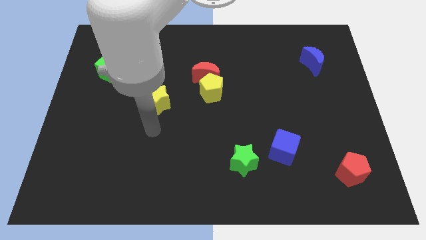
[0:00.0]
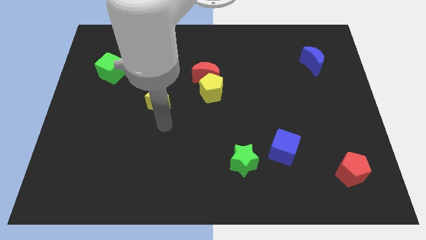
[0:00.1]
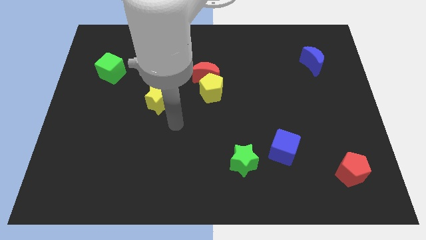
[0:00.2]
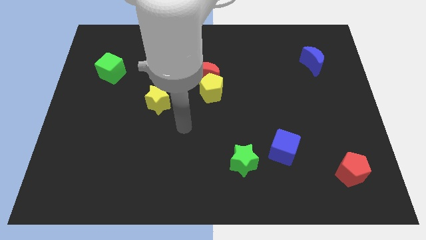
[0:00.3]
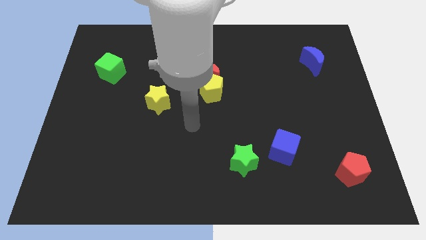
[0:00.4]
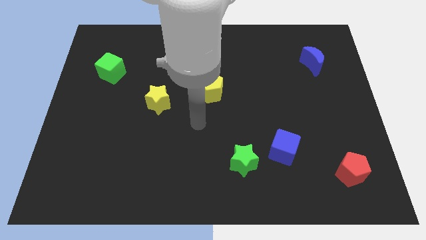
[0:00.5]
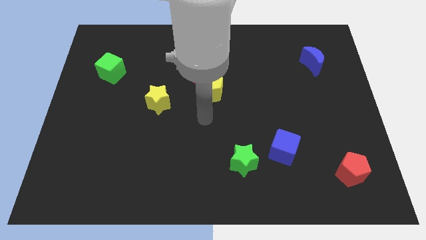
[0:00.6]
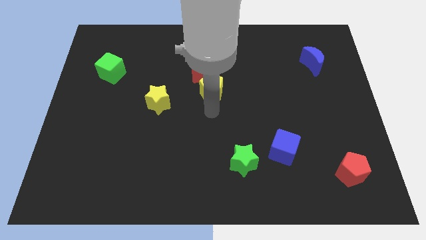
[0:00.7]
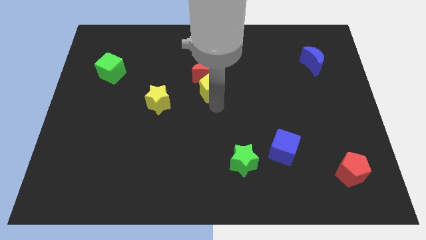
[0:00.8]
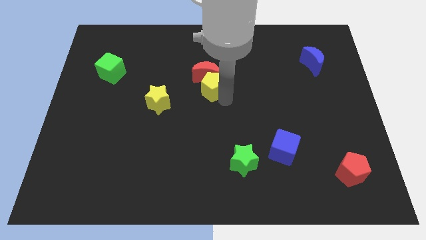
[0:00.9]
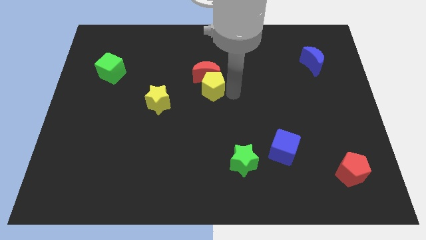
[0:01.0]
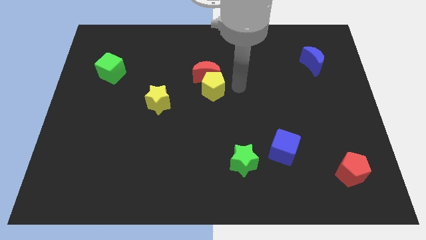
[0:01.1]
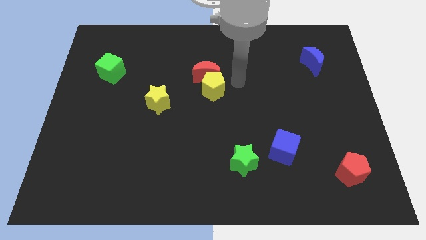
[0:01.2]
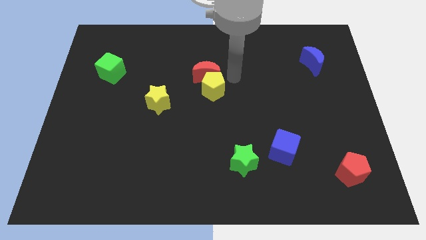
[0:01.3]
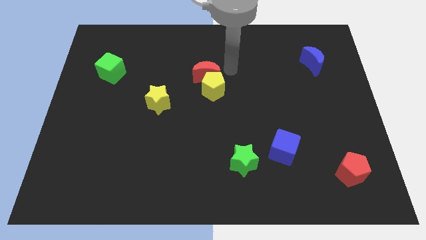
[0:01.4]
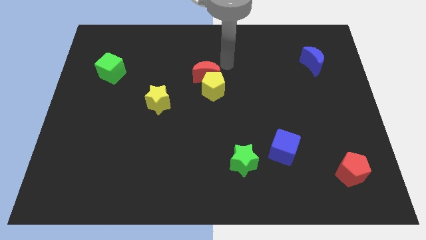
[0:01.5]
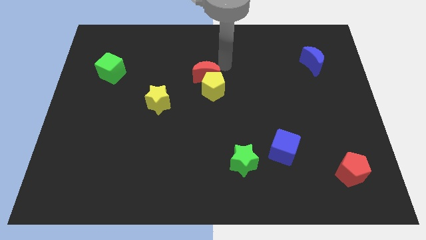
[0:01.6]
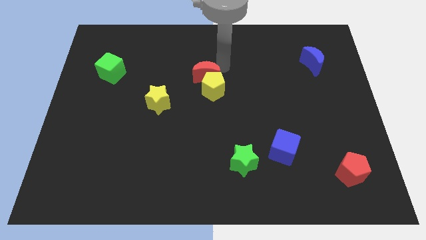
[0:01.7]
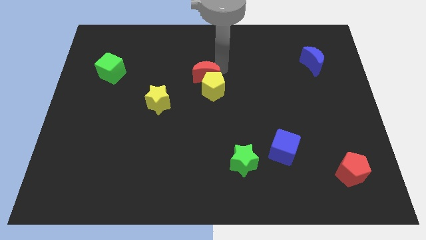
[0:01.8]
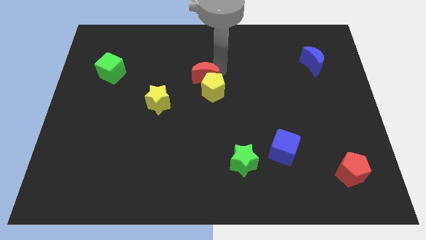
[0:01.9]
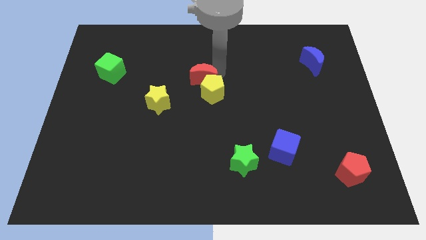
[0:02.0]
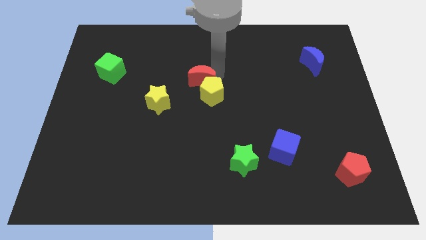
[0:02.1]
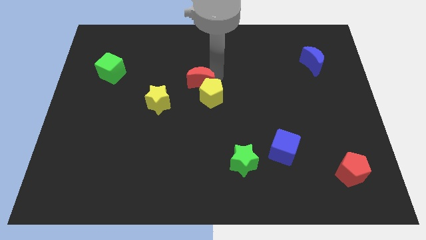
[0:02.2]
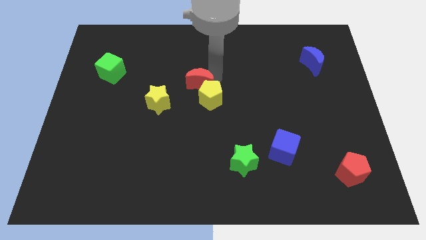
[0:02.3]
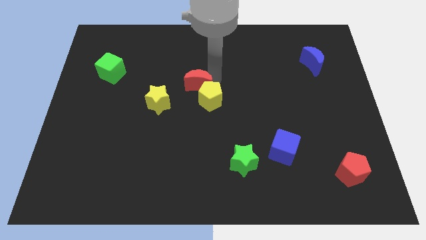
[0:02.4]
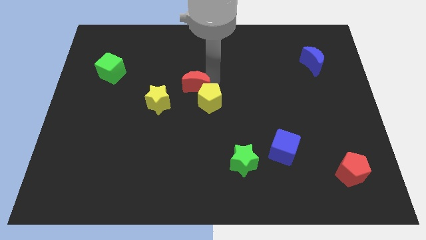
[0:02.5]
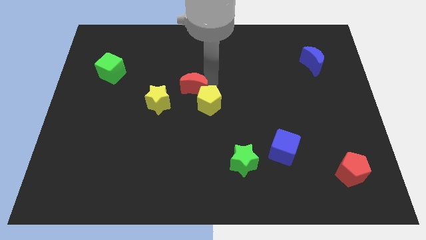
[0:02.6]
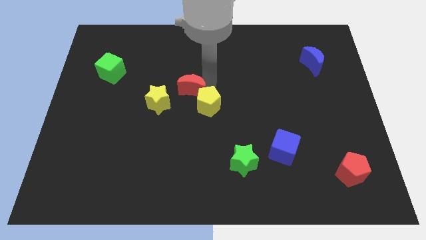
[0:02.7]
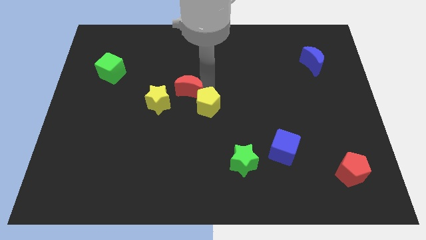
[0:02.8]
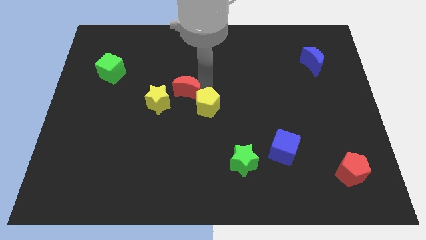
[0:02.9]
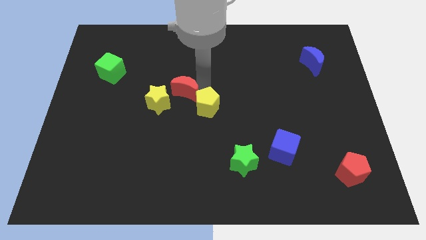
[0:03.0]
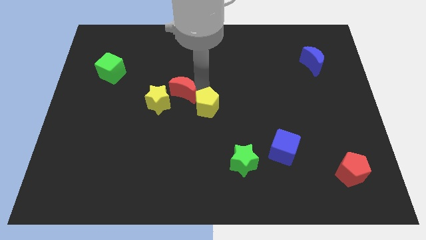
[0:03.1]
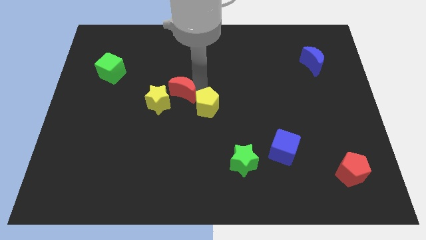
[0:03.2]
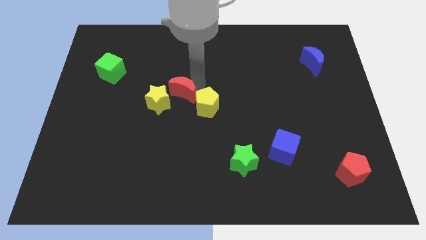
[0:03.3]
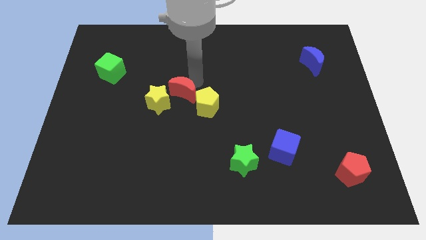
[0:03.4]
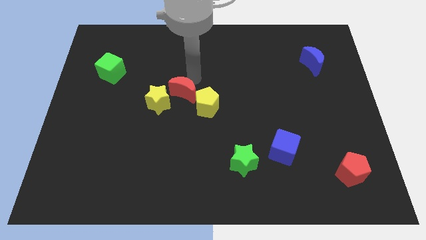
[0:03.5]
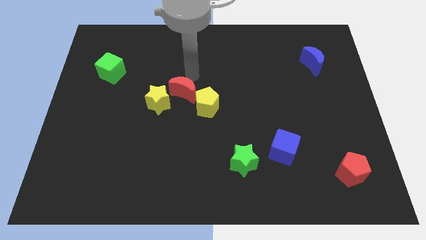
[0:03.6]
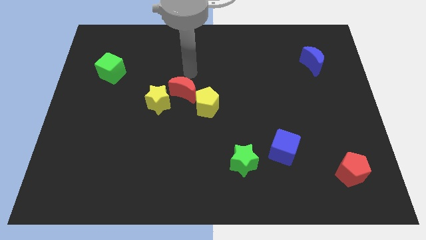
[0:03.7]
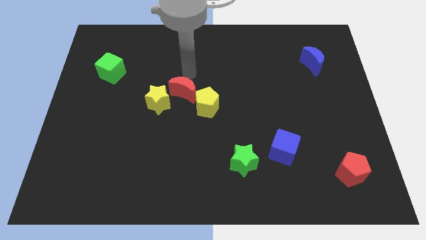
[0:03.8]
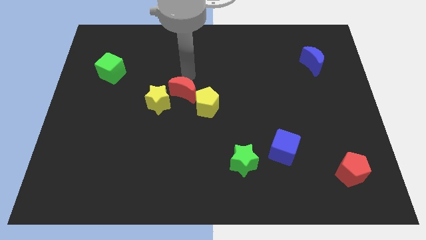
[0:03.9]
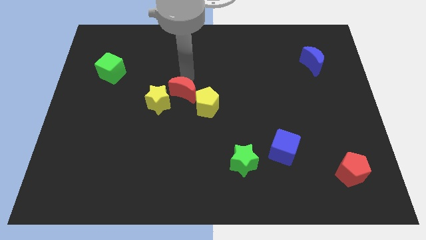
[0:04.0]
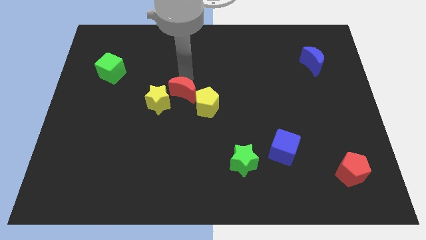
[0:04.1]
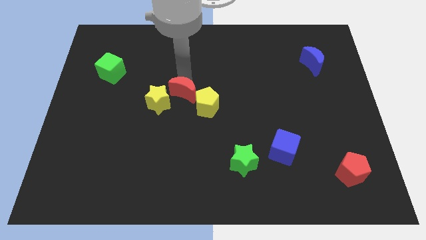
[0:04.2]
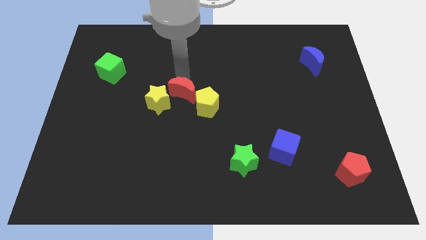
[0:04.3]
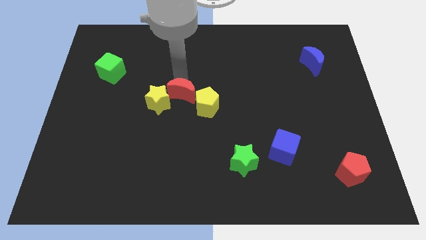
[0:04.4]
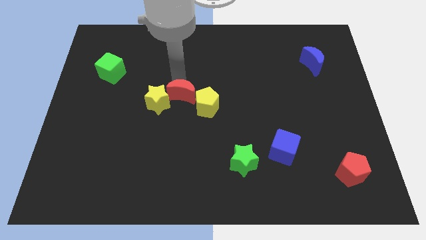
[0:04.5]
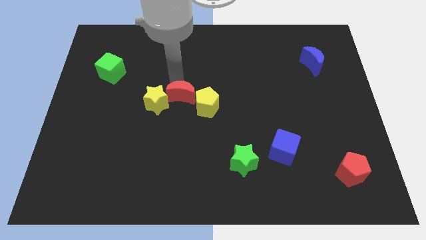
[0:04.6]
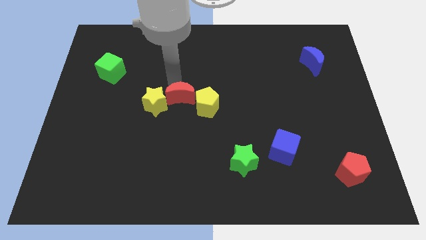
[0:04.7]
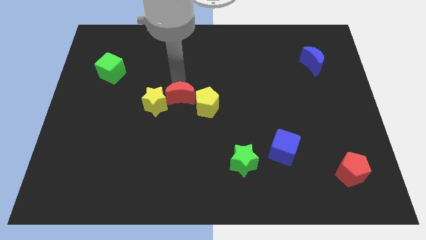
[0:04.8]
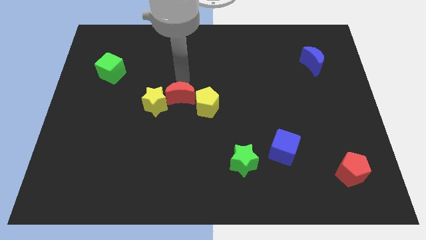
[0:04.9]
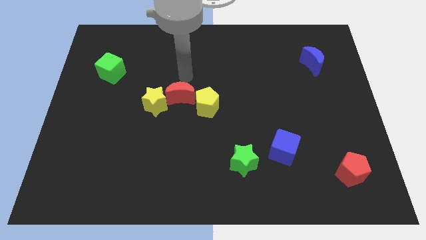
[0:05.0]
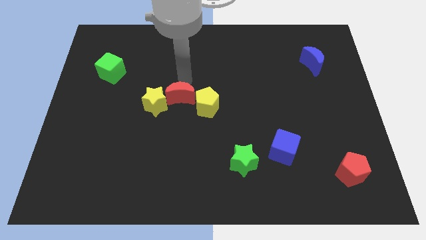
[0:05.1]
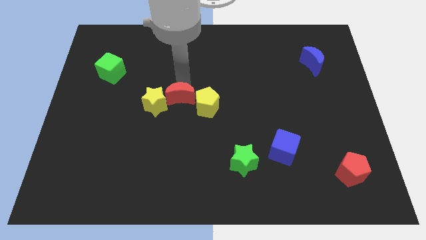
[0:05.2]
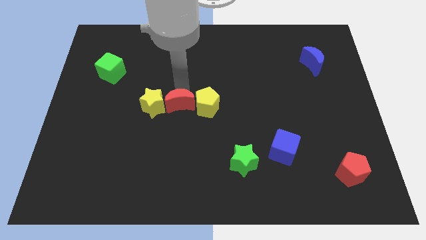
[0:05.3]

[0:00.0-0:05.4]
put the red moon diagonally down and to the right of the yellow star

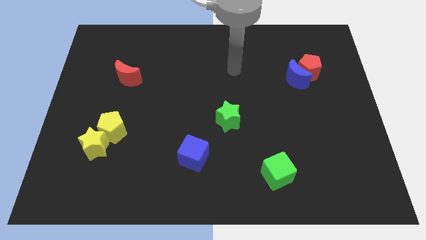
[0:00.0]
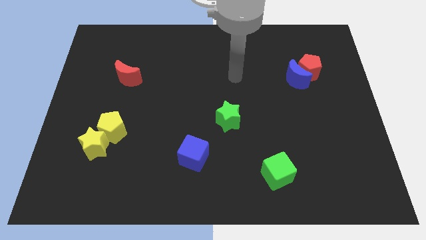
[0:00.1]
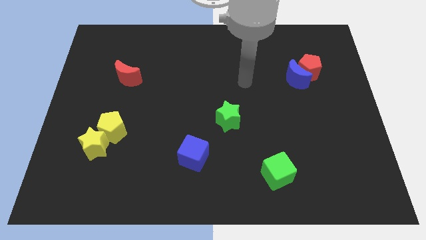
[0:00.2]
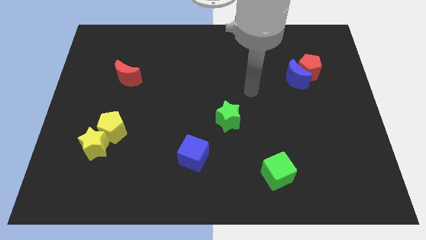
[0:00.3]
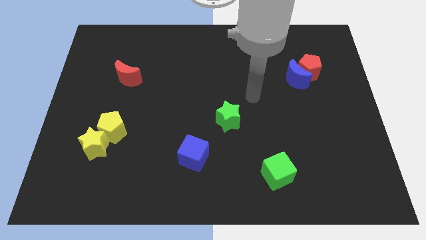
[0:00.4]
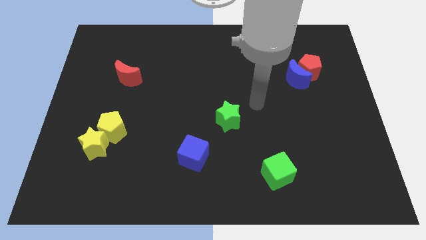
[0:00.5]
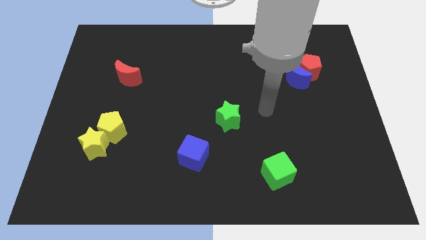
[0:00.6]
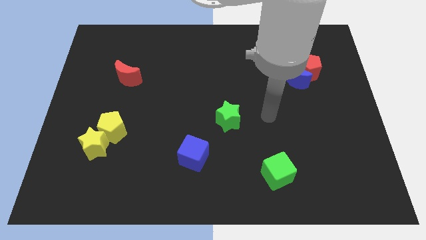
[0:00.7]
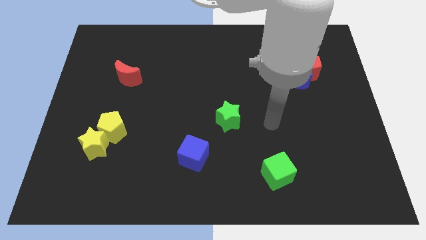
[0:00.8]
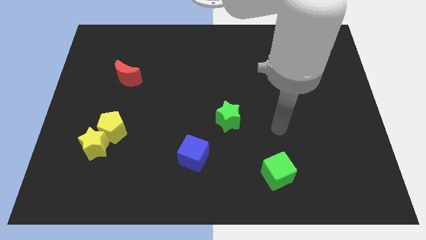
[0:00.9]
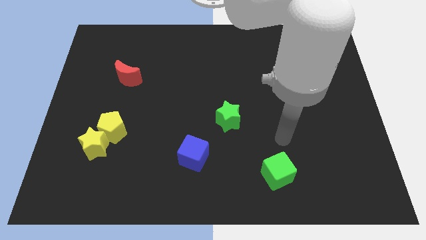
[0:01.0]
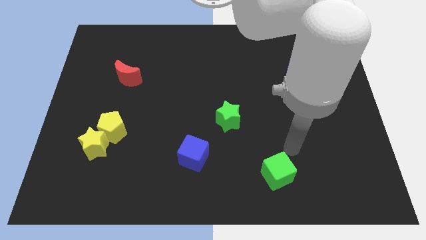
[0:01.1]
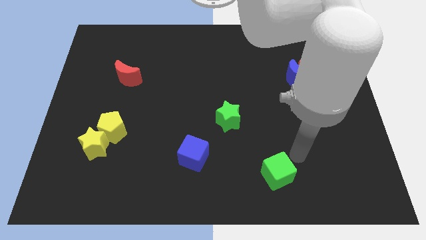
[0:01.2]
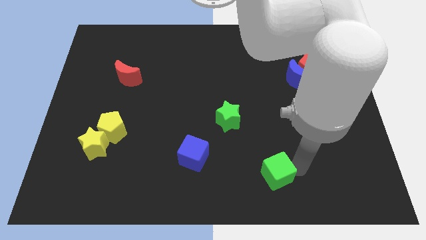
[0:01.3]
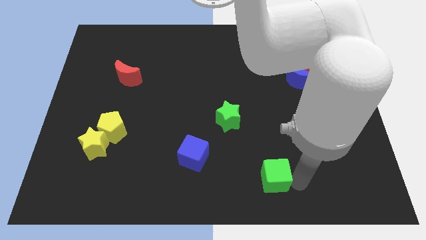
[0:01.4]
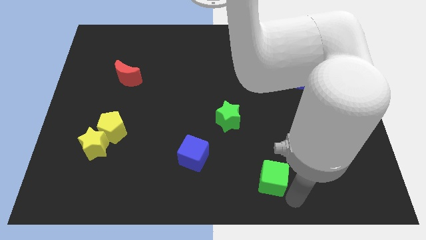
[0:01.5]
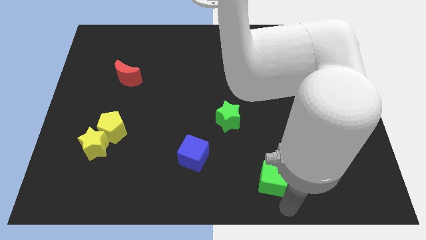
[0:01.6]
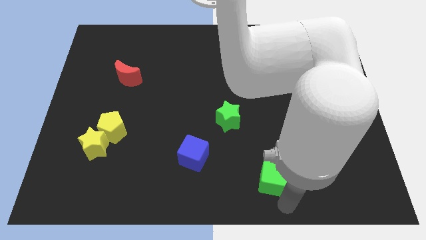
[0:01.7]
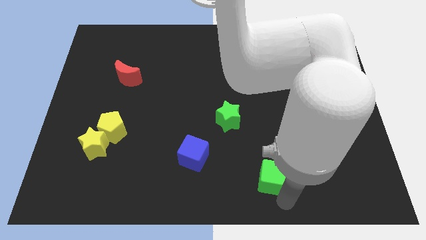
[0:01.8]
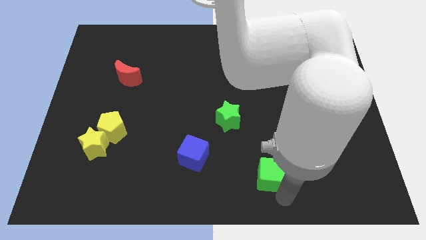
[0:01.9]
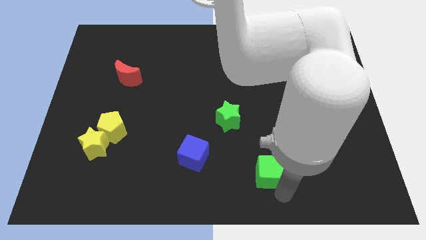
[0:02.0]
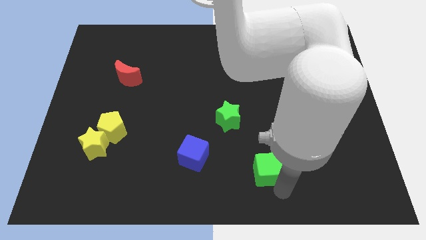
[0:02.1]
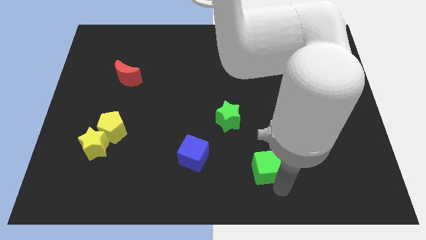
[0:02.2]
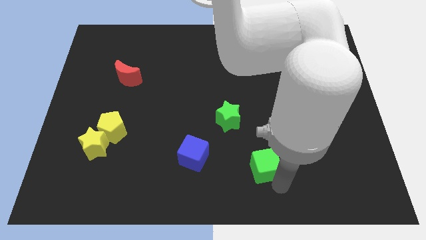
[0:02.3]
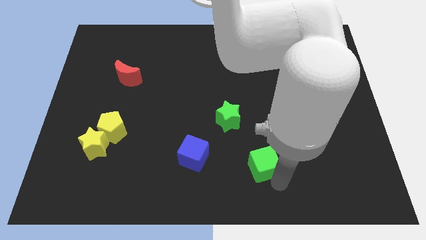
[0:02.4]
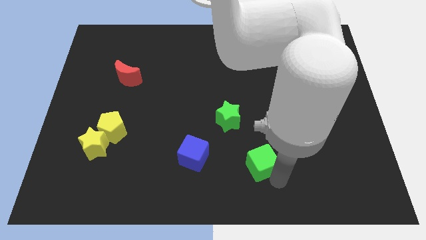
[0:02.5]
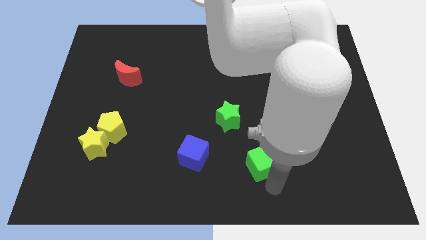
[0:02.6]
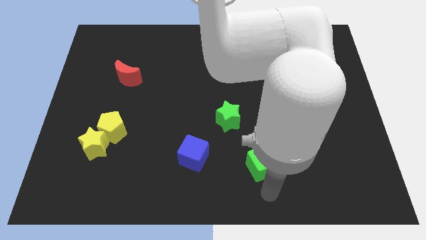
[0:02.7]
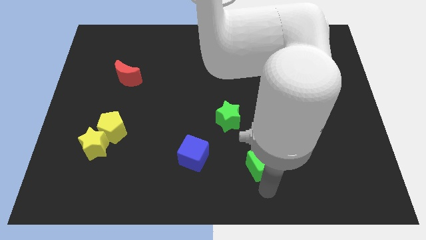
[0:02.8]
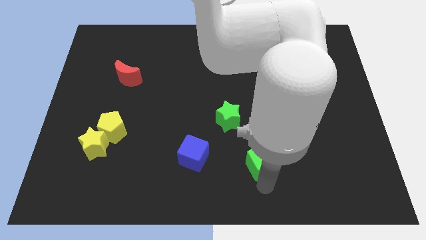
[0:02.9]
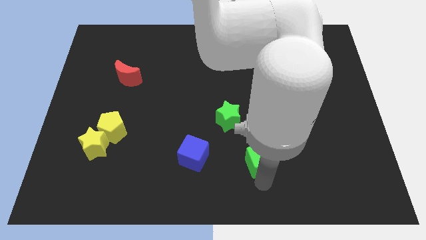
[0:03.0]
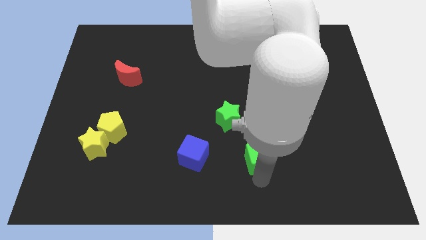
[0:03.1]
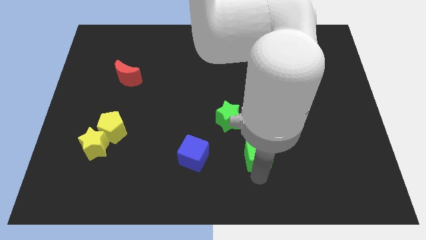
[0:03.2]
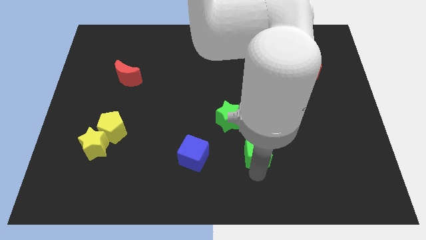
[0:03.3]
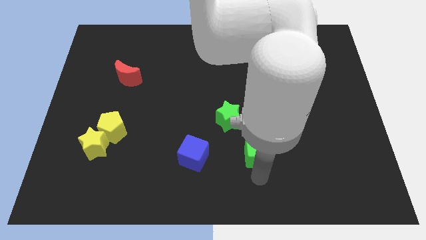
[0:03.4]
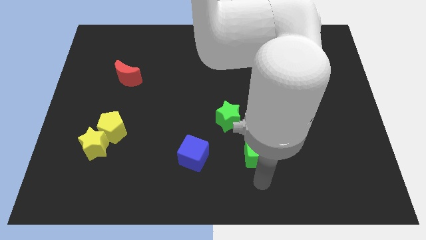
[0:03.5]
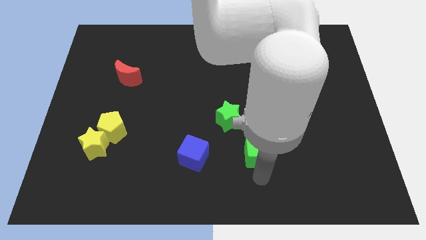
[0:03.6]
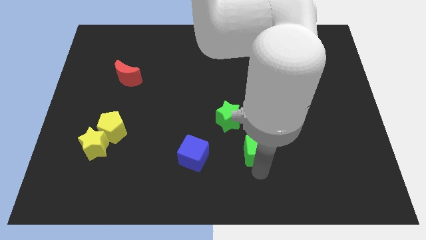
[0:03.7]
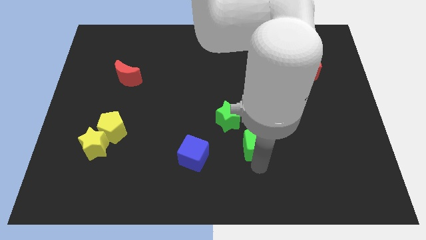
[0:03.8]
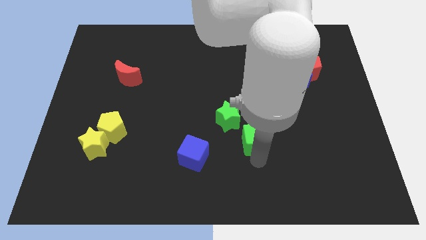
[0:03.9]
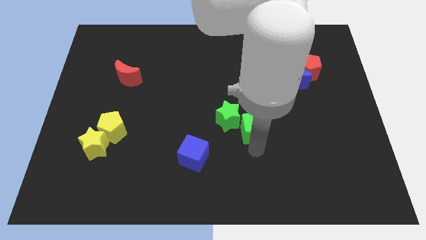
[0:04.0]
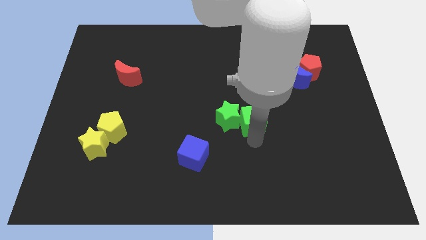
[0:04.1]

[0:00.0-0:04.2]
push the green cube to the top right of the green star
